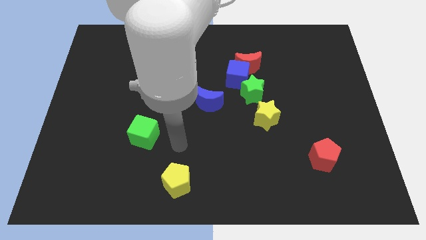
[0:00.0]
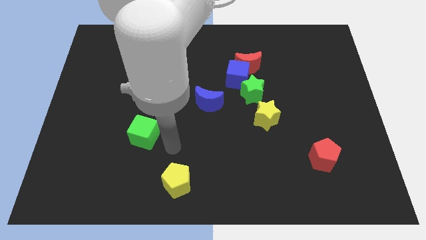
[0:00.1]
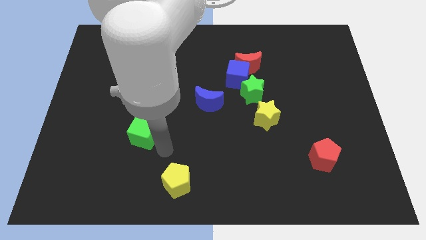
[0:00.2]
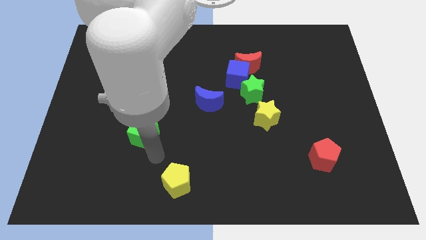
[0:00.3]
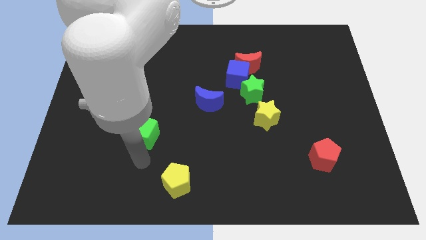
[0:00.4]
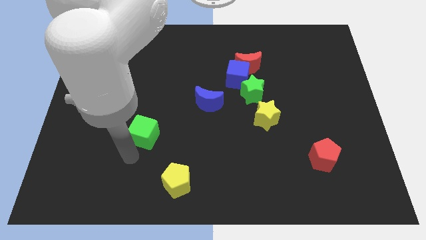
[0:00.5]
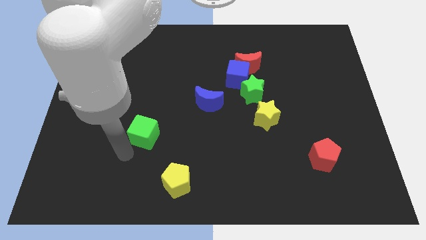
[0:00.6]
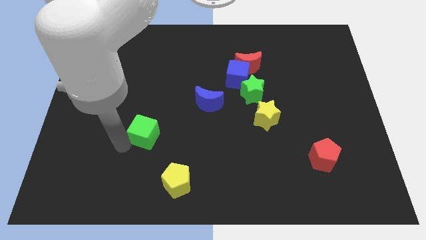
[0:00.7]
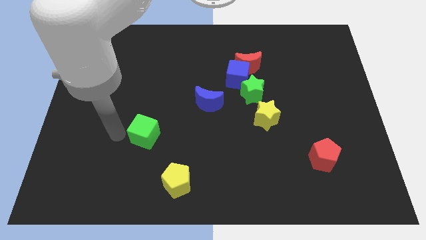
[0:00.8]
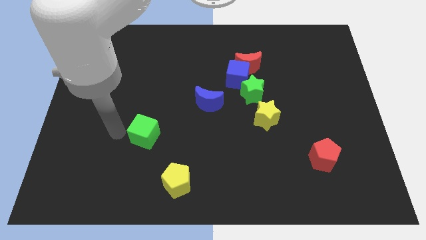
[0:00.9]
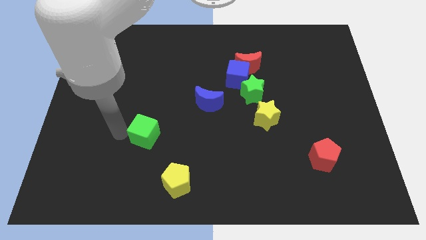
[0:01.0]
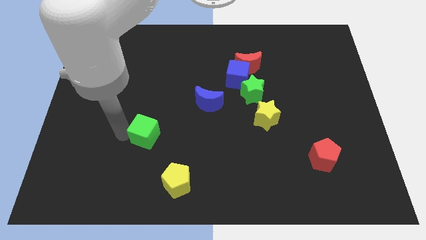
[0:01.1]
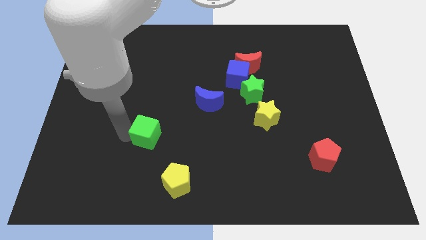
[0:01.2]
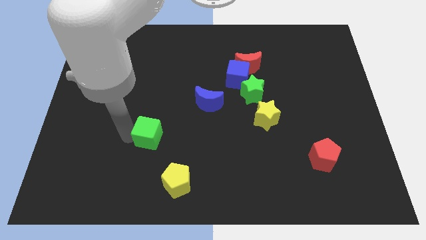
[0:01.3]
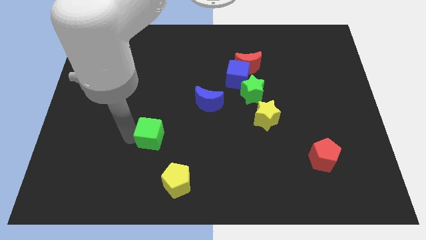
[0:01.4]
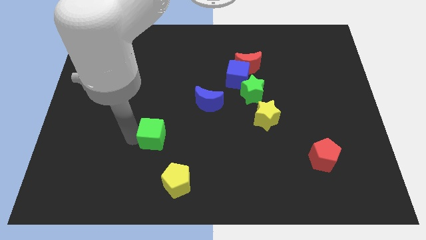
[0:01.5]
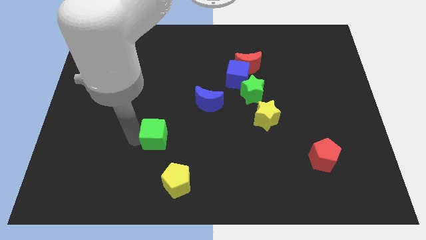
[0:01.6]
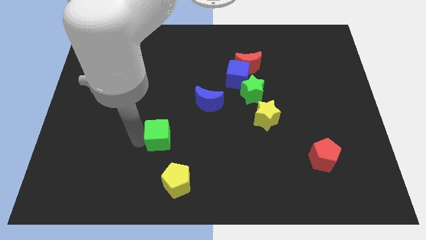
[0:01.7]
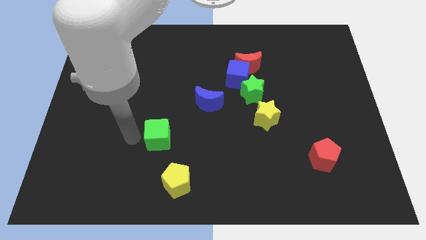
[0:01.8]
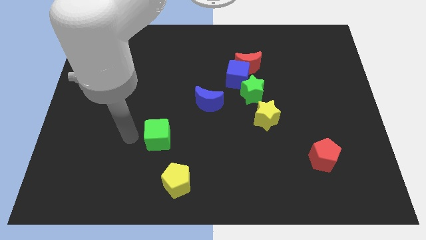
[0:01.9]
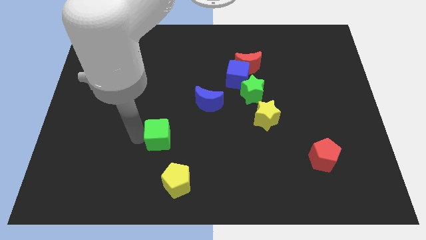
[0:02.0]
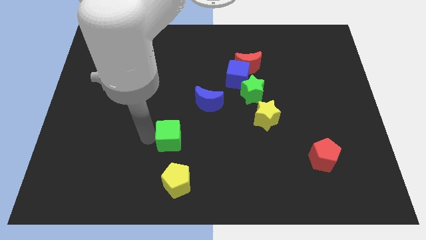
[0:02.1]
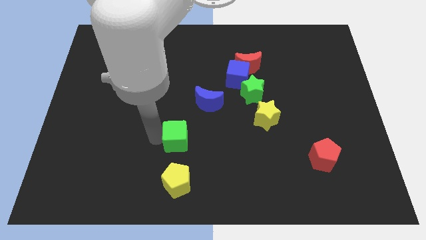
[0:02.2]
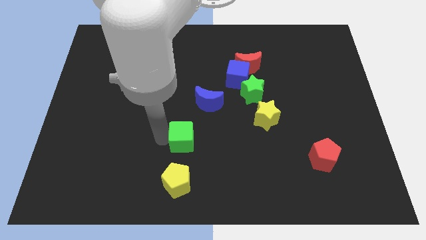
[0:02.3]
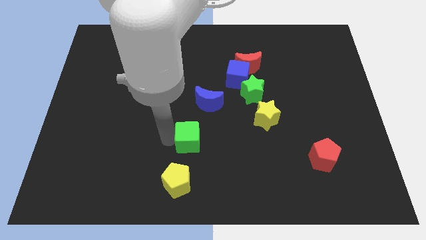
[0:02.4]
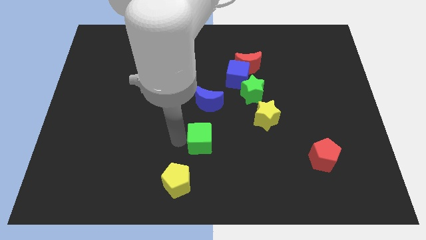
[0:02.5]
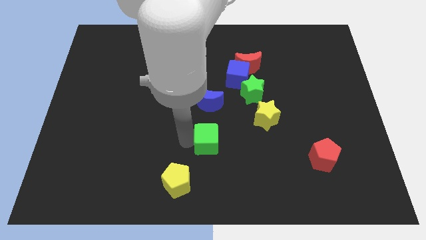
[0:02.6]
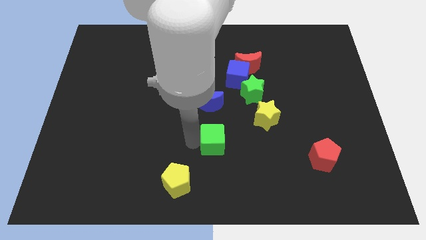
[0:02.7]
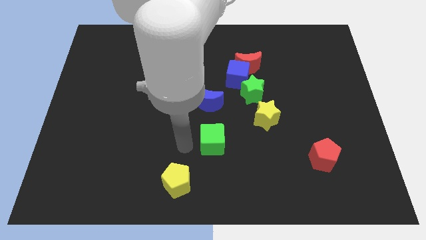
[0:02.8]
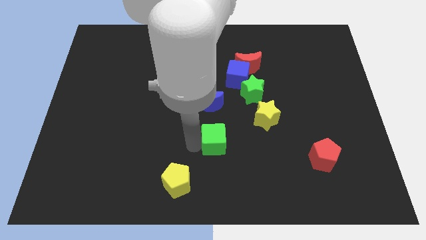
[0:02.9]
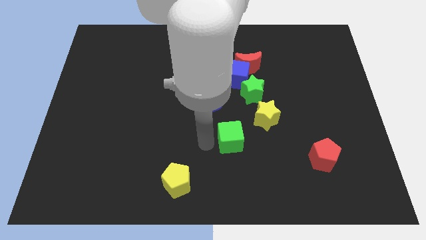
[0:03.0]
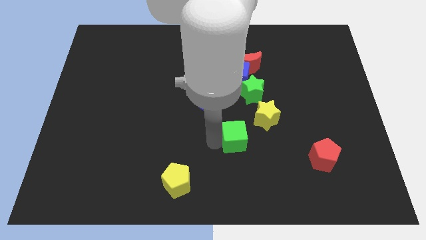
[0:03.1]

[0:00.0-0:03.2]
push the green cube right

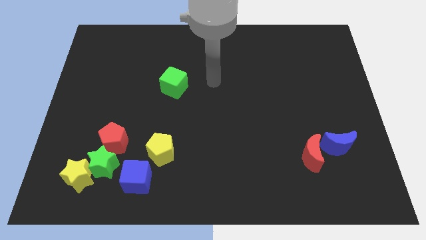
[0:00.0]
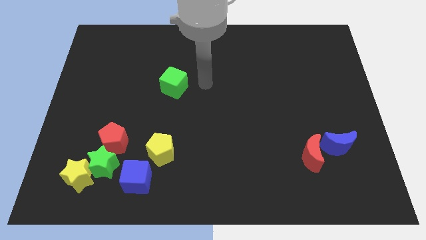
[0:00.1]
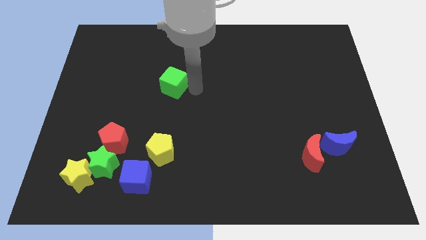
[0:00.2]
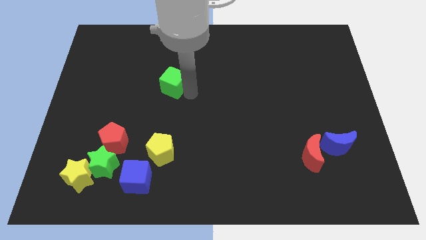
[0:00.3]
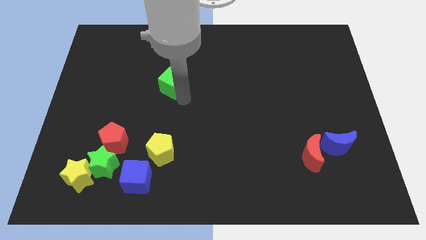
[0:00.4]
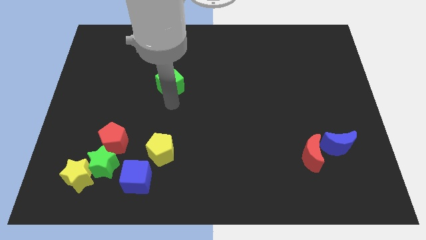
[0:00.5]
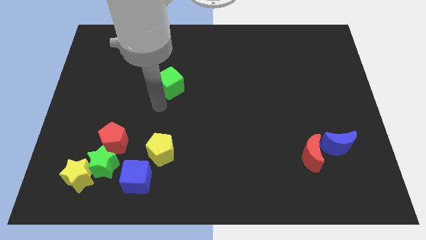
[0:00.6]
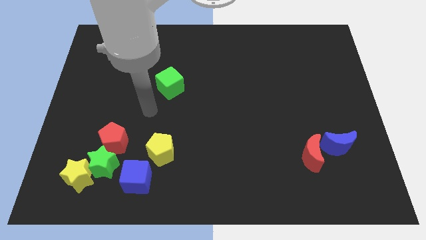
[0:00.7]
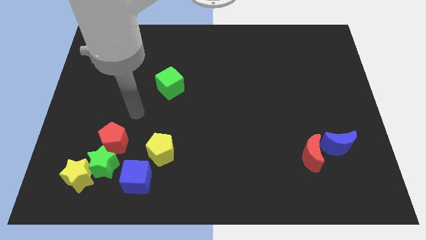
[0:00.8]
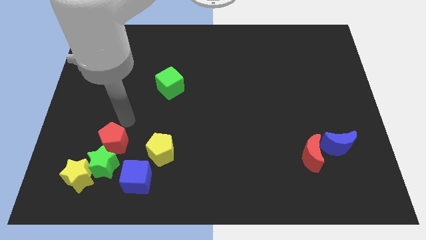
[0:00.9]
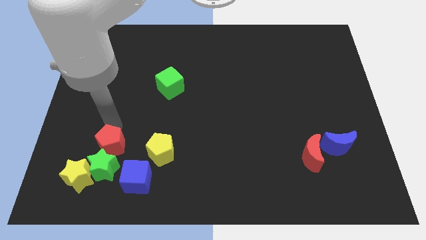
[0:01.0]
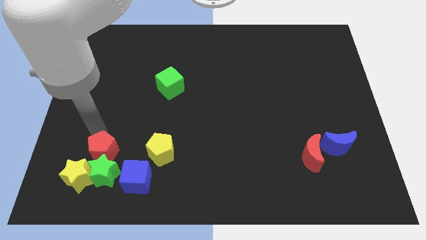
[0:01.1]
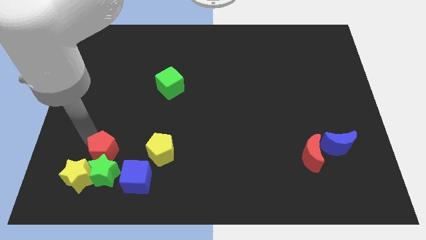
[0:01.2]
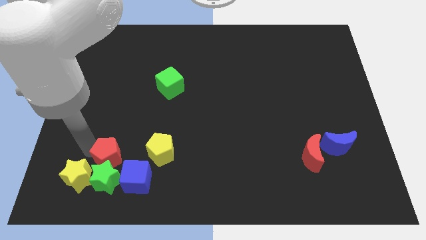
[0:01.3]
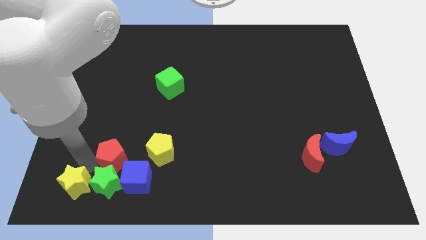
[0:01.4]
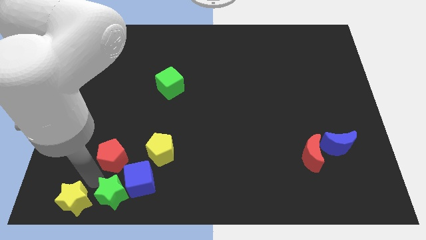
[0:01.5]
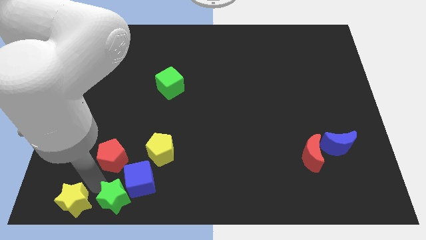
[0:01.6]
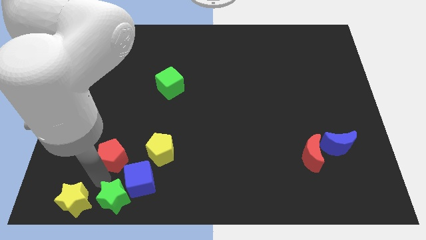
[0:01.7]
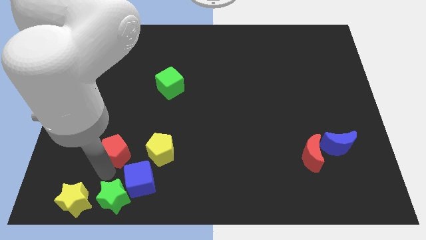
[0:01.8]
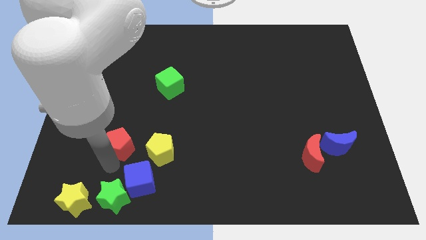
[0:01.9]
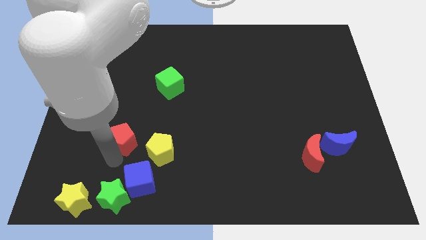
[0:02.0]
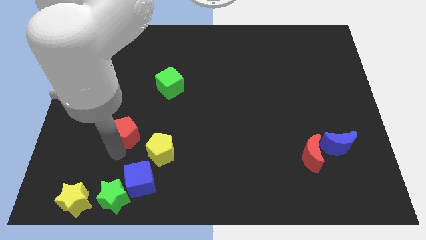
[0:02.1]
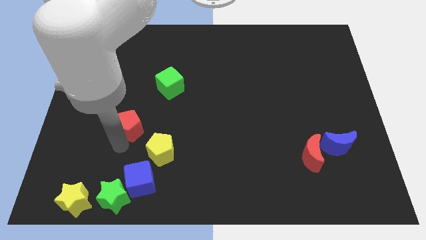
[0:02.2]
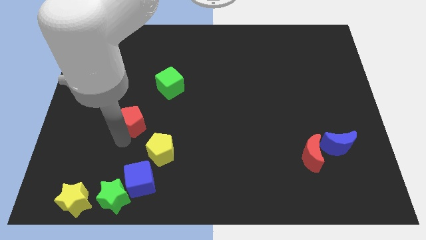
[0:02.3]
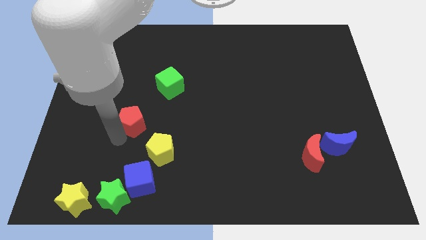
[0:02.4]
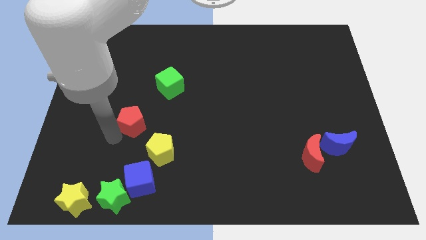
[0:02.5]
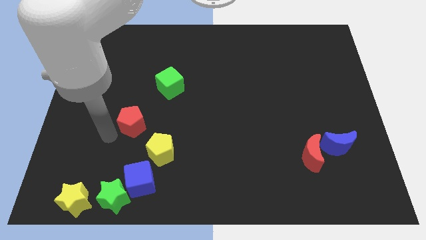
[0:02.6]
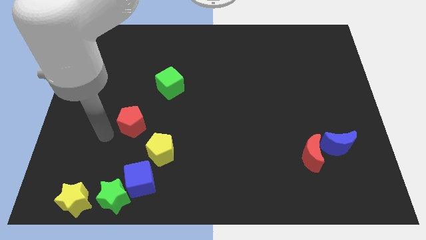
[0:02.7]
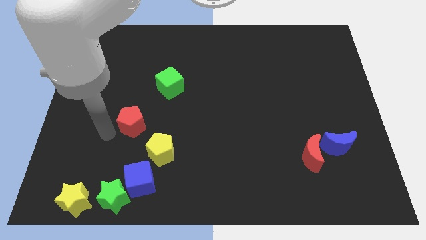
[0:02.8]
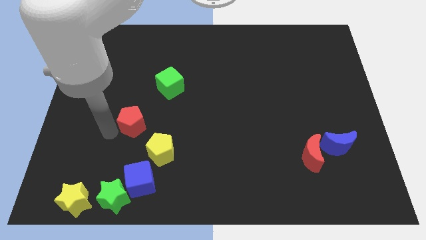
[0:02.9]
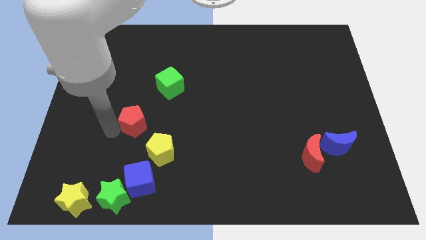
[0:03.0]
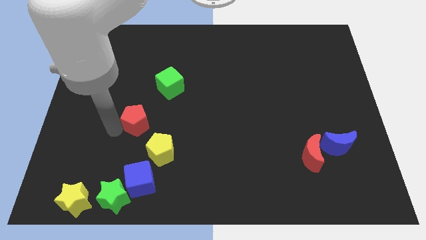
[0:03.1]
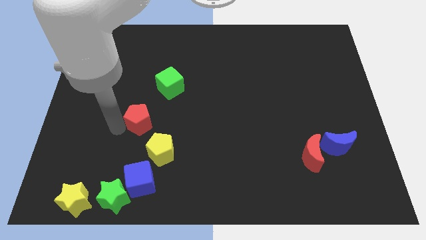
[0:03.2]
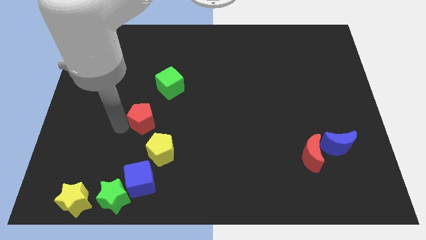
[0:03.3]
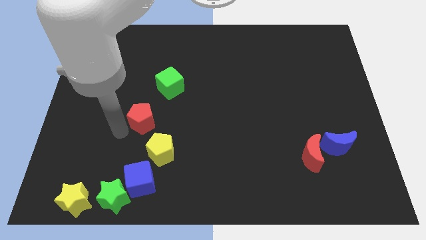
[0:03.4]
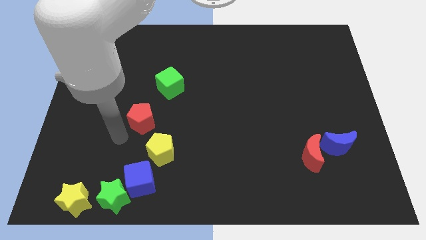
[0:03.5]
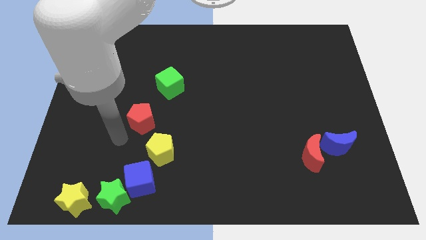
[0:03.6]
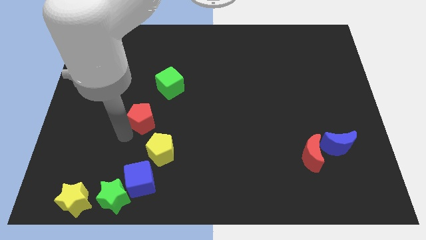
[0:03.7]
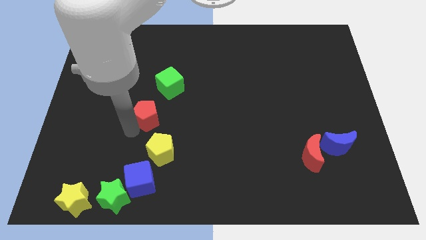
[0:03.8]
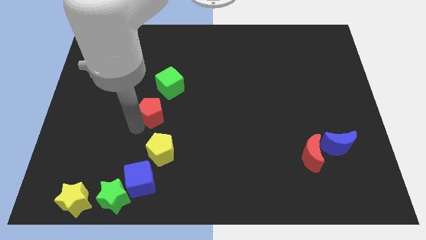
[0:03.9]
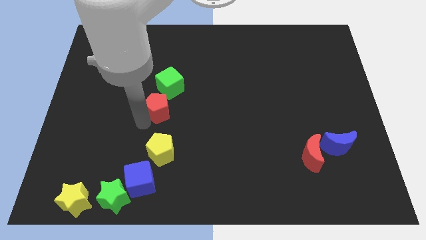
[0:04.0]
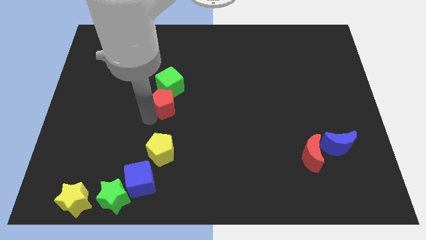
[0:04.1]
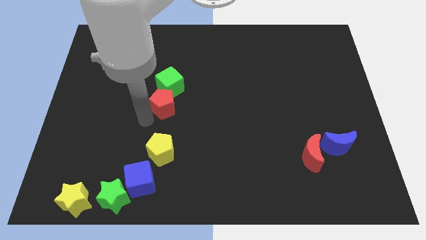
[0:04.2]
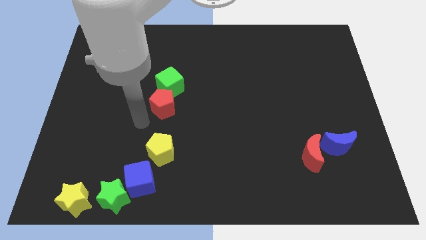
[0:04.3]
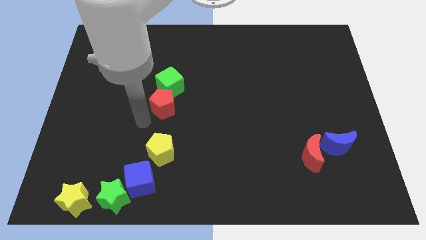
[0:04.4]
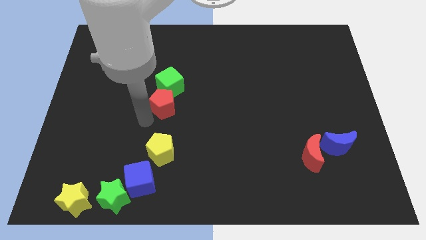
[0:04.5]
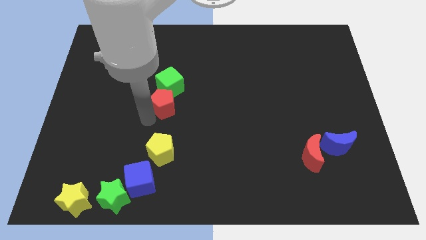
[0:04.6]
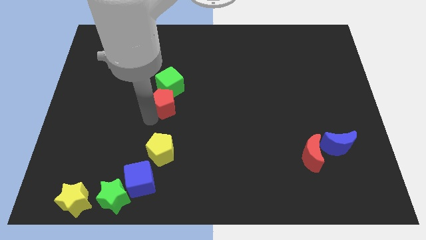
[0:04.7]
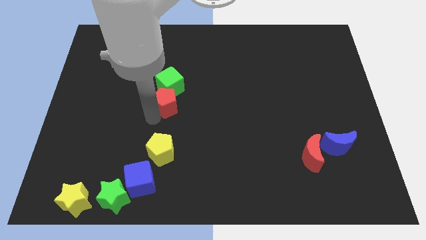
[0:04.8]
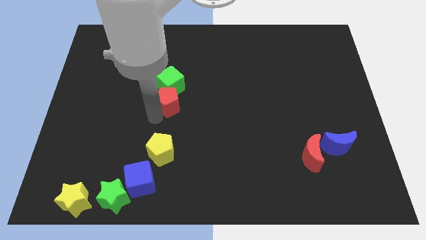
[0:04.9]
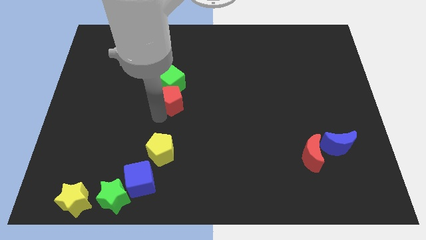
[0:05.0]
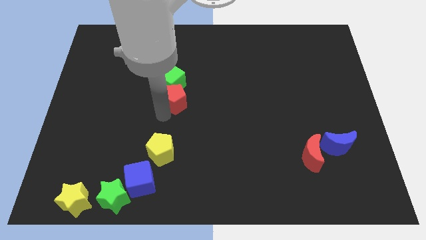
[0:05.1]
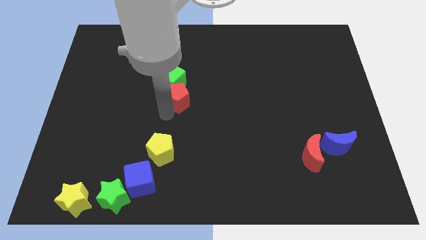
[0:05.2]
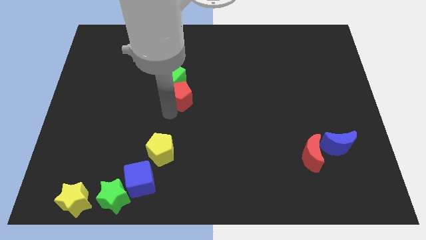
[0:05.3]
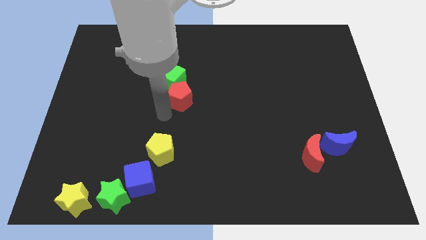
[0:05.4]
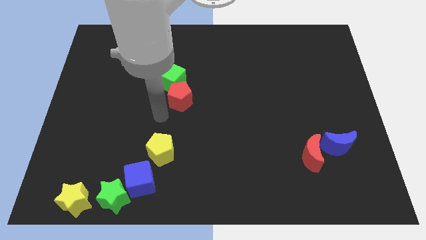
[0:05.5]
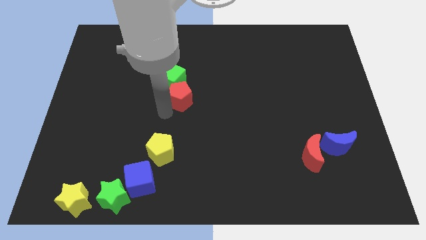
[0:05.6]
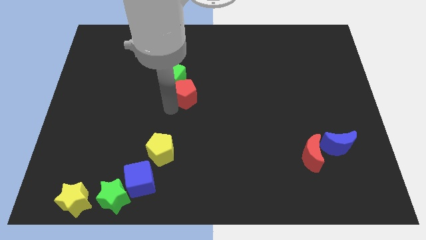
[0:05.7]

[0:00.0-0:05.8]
move the red pentagon upwards and right diagonally
